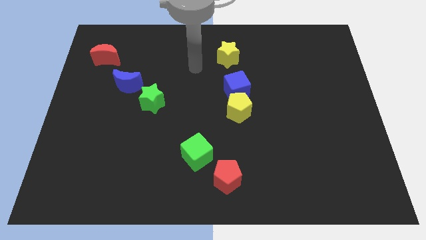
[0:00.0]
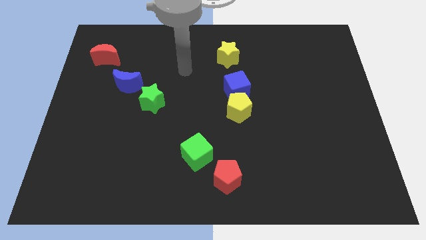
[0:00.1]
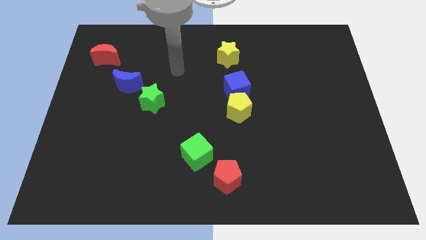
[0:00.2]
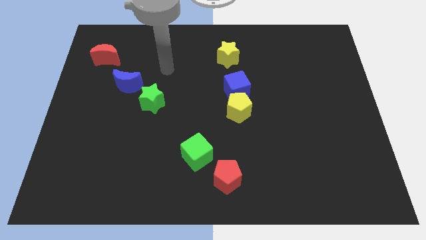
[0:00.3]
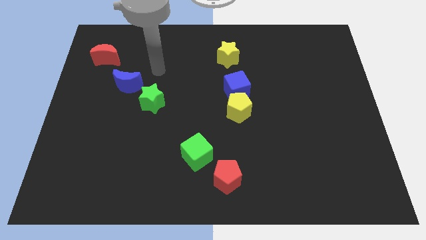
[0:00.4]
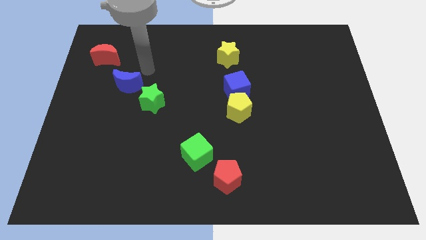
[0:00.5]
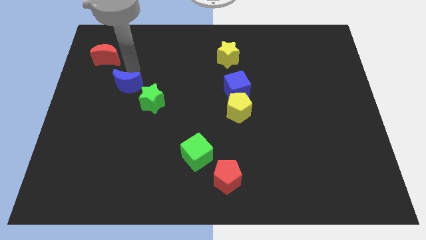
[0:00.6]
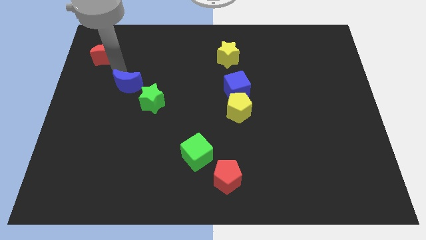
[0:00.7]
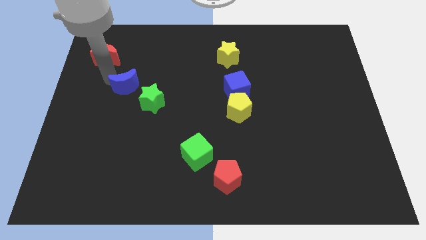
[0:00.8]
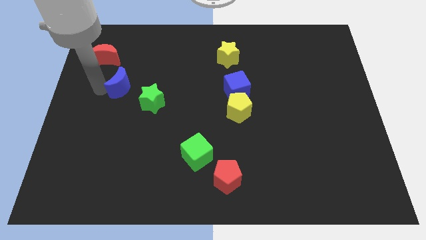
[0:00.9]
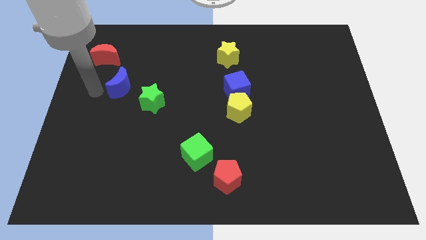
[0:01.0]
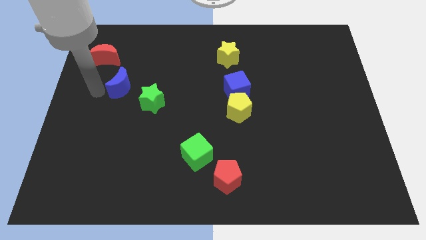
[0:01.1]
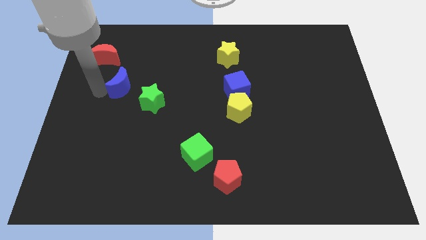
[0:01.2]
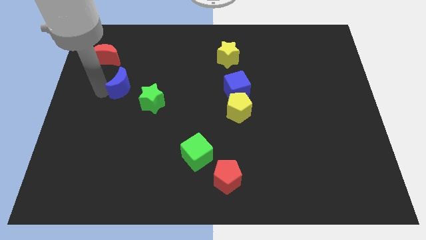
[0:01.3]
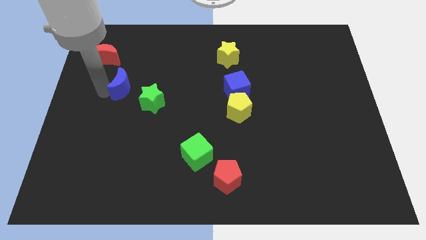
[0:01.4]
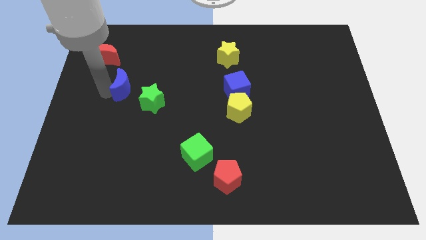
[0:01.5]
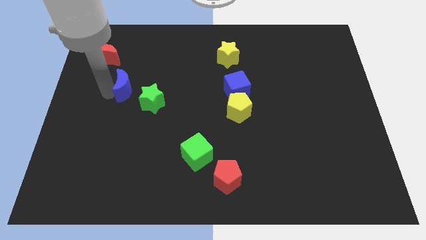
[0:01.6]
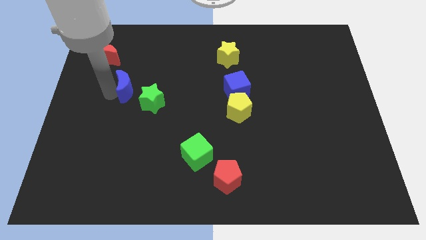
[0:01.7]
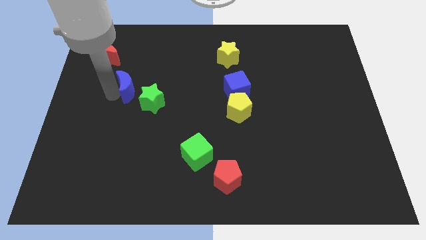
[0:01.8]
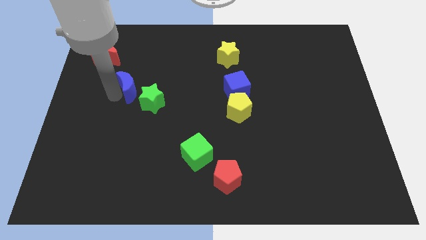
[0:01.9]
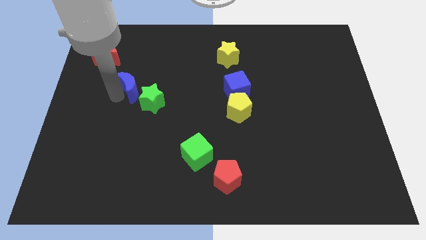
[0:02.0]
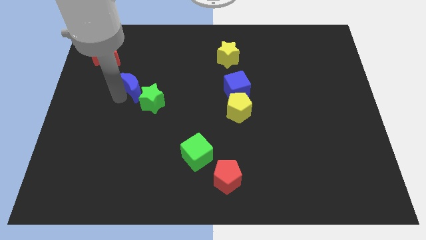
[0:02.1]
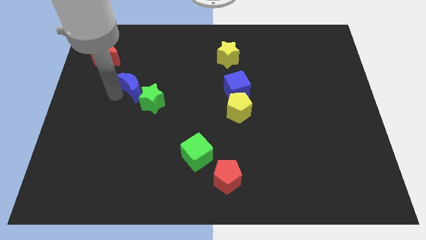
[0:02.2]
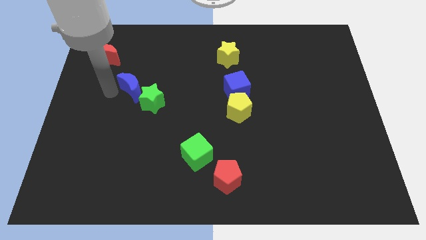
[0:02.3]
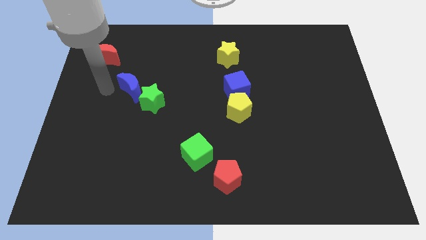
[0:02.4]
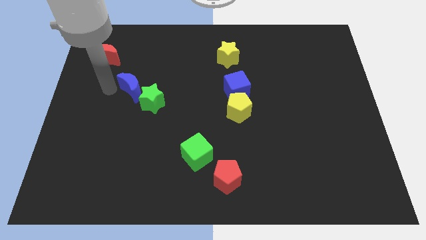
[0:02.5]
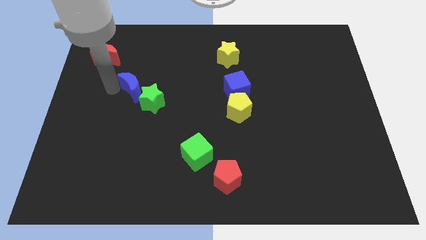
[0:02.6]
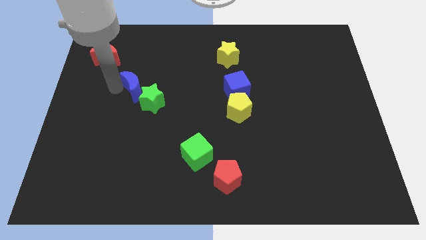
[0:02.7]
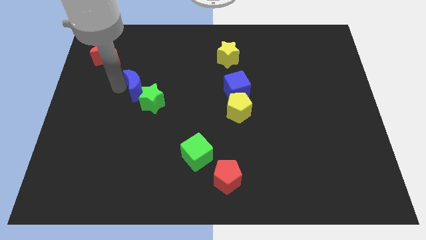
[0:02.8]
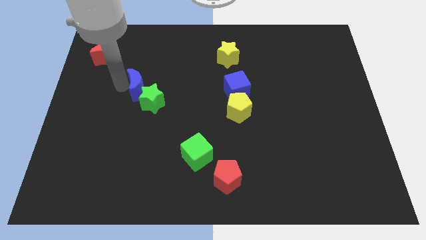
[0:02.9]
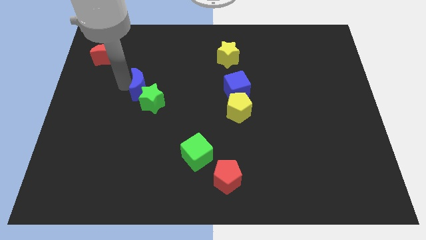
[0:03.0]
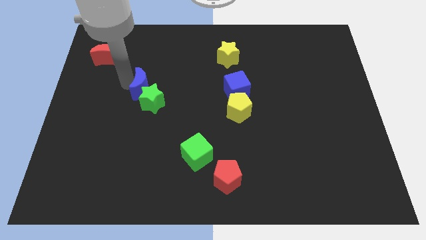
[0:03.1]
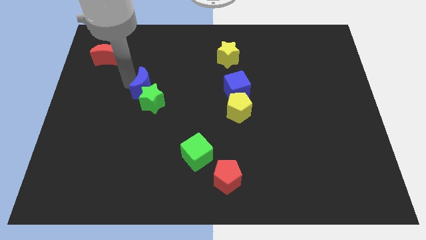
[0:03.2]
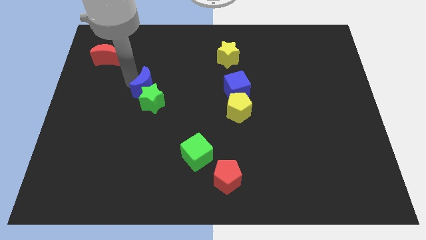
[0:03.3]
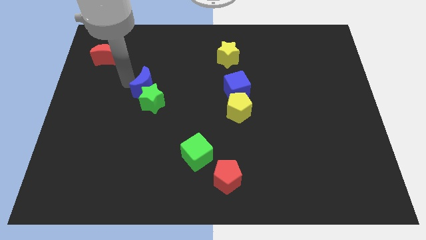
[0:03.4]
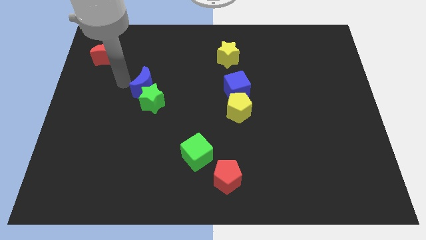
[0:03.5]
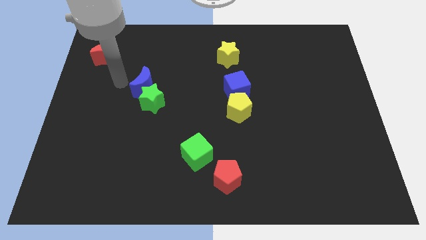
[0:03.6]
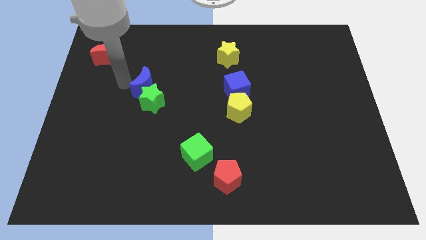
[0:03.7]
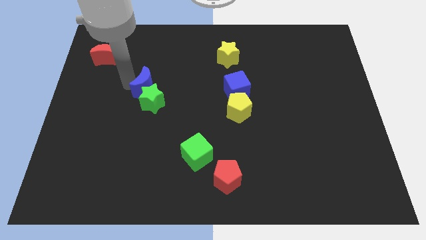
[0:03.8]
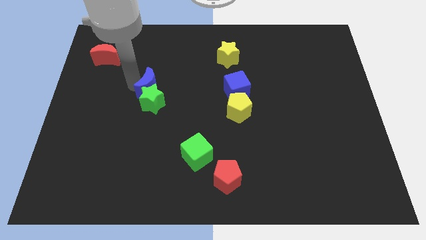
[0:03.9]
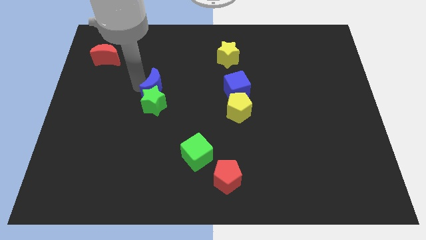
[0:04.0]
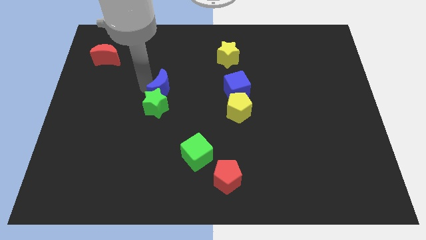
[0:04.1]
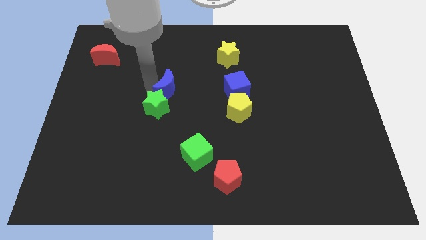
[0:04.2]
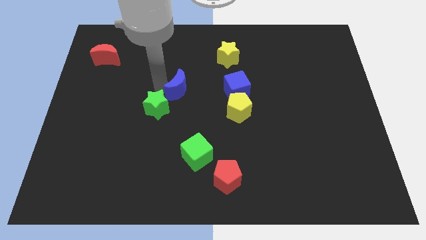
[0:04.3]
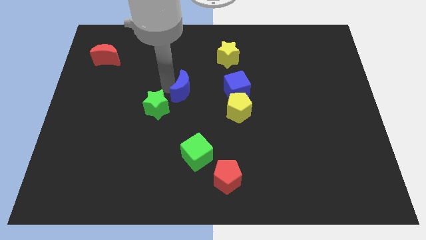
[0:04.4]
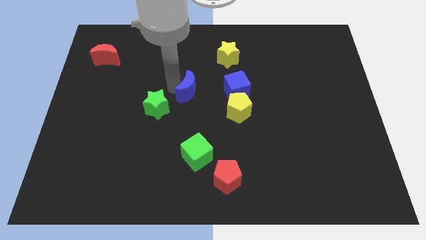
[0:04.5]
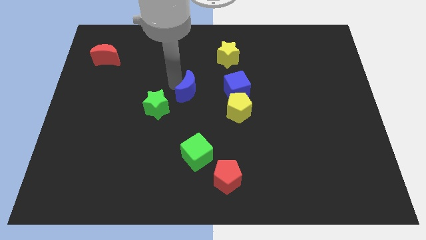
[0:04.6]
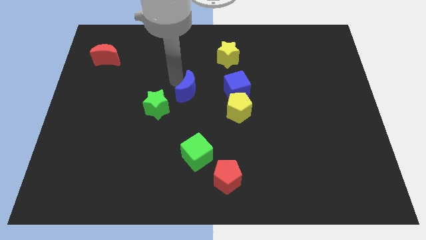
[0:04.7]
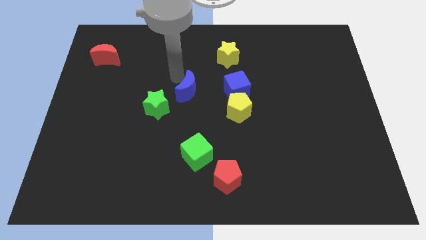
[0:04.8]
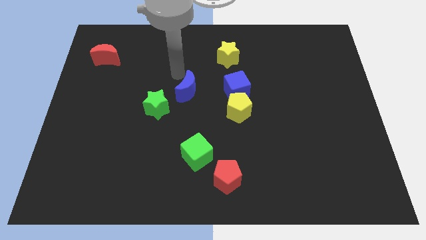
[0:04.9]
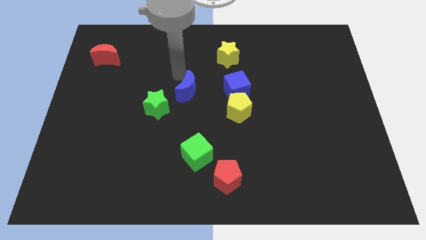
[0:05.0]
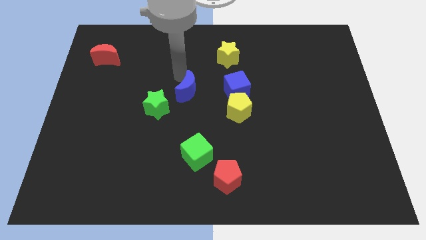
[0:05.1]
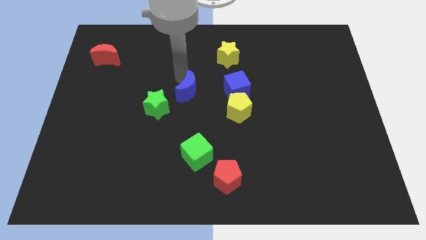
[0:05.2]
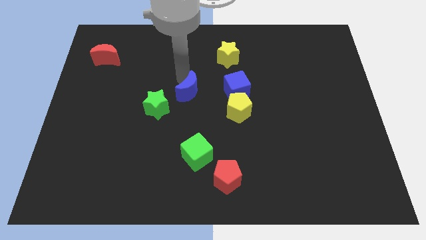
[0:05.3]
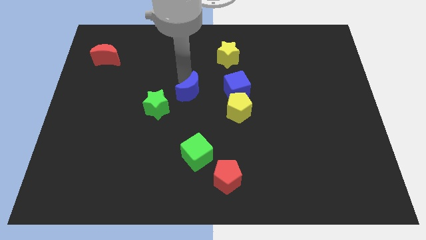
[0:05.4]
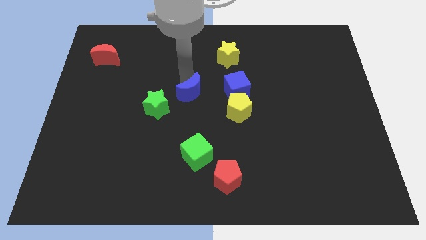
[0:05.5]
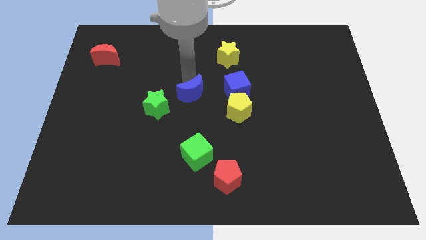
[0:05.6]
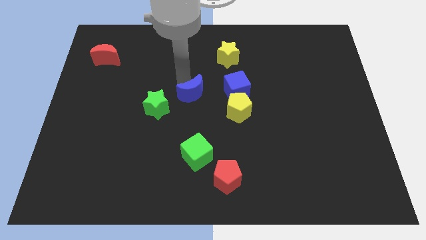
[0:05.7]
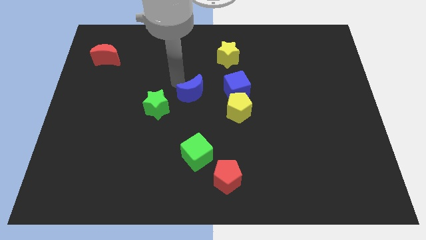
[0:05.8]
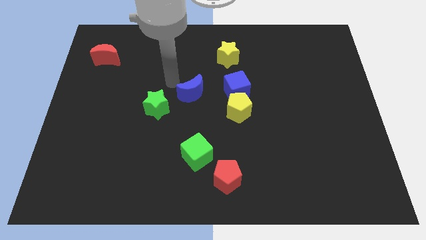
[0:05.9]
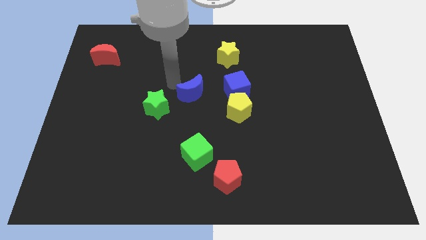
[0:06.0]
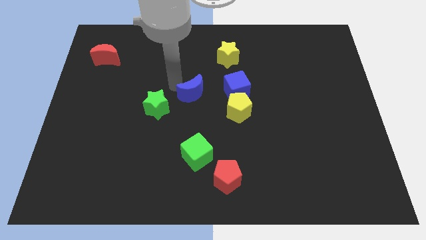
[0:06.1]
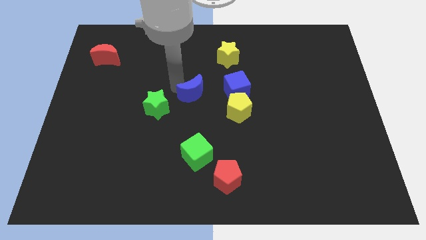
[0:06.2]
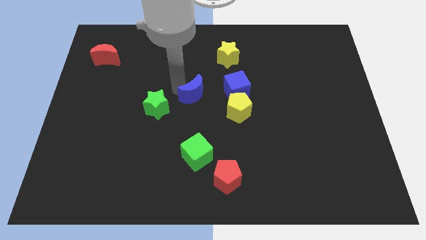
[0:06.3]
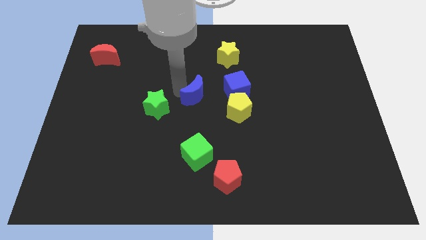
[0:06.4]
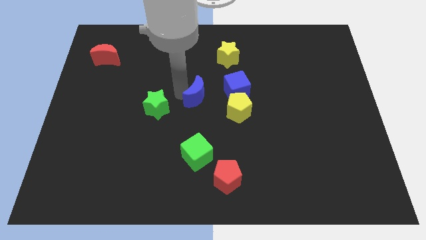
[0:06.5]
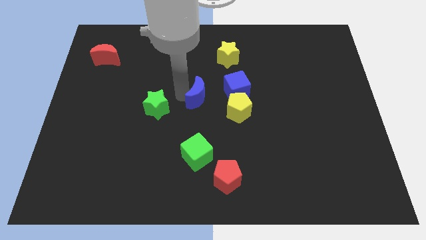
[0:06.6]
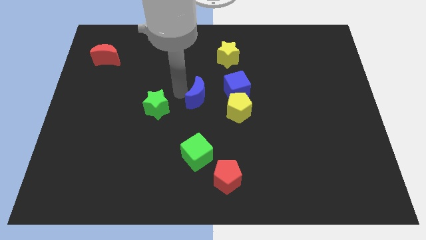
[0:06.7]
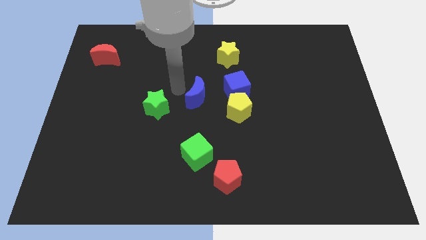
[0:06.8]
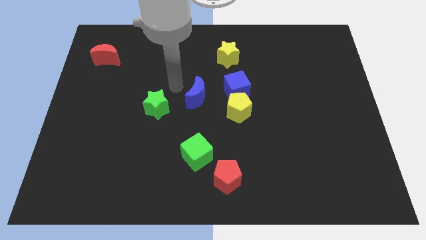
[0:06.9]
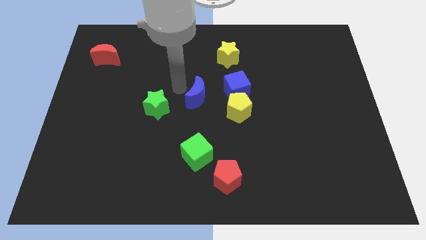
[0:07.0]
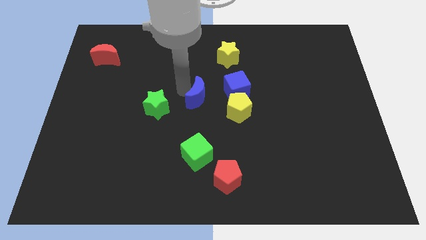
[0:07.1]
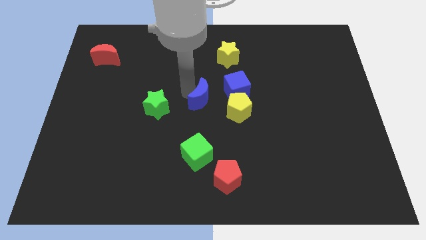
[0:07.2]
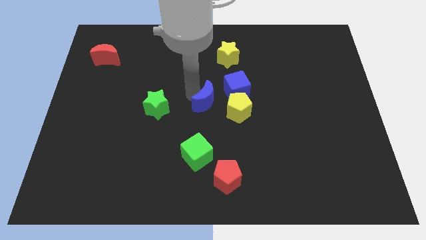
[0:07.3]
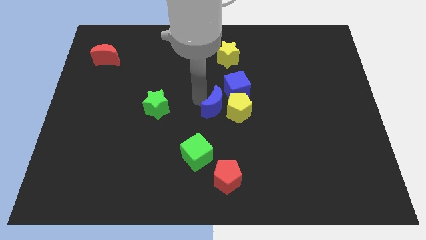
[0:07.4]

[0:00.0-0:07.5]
put the blue moon towards the yellow pentagon
